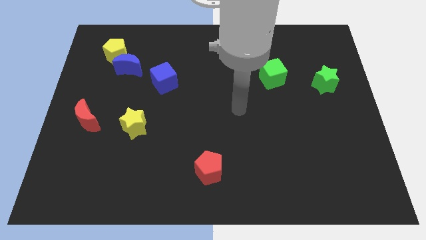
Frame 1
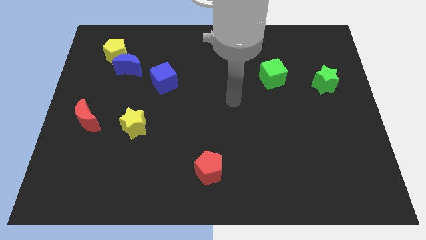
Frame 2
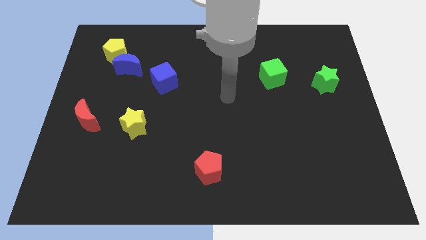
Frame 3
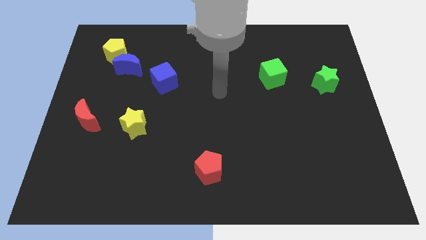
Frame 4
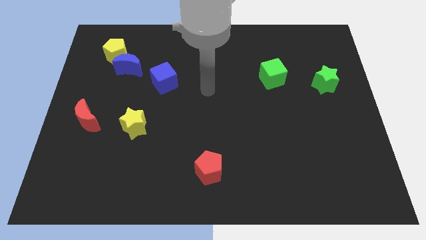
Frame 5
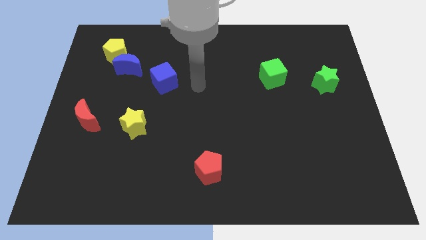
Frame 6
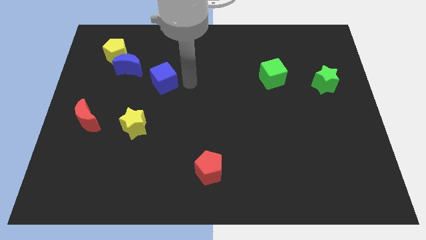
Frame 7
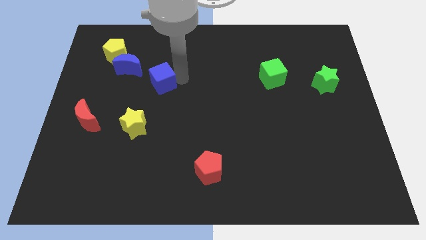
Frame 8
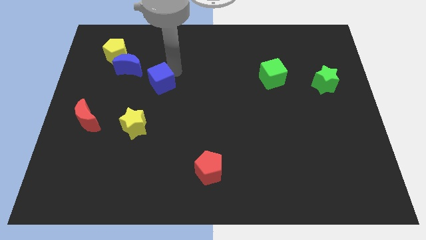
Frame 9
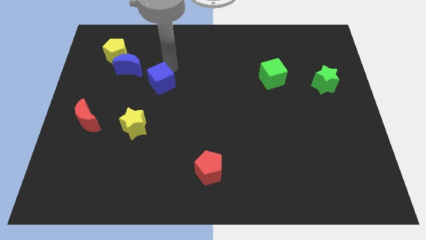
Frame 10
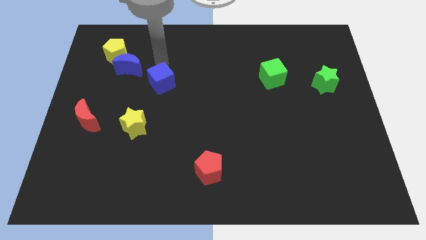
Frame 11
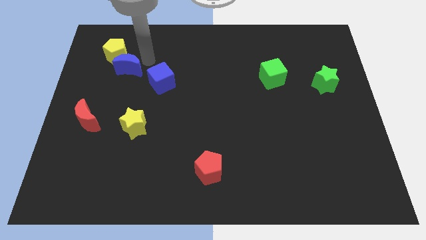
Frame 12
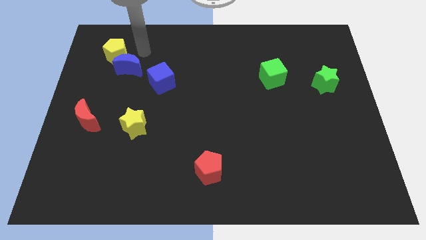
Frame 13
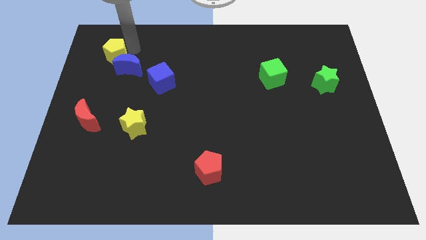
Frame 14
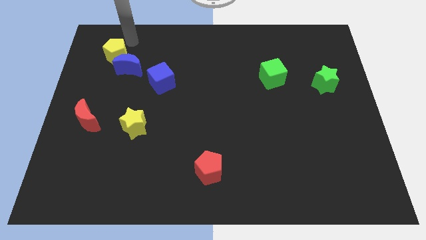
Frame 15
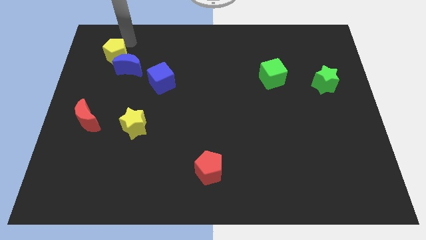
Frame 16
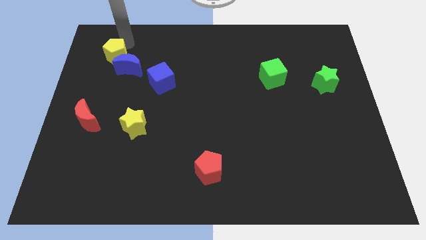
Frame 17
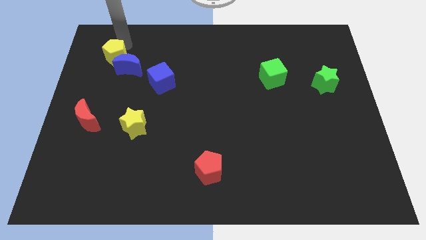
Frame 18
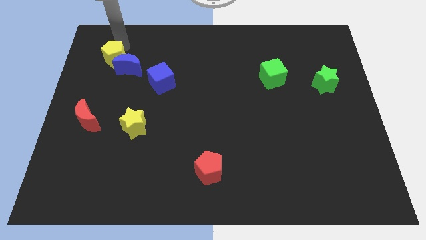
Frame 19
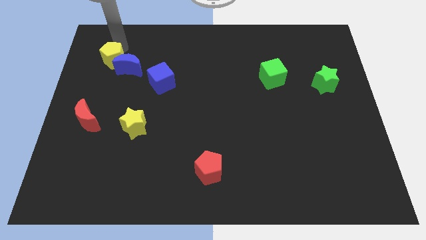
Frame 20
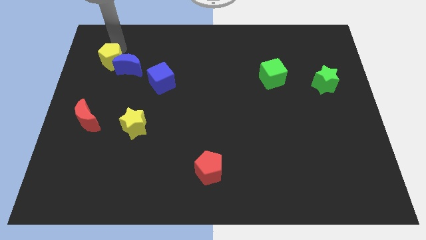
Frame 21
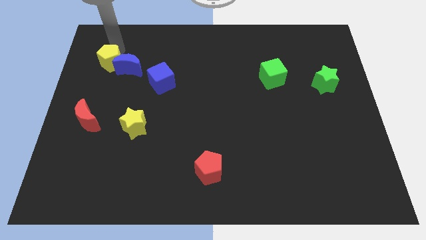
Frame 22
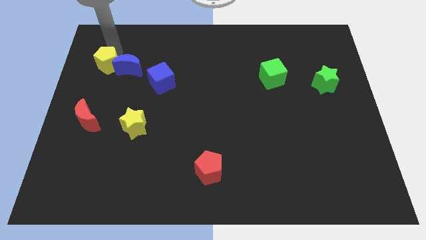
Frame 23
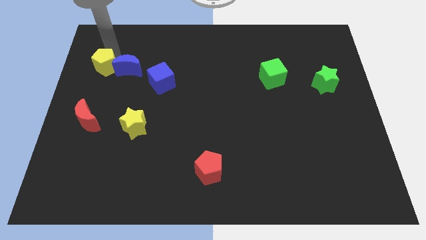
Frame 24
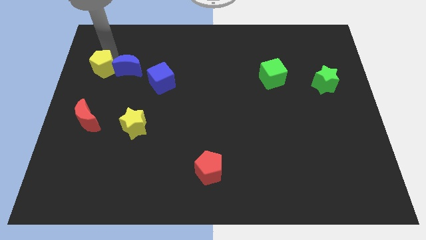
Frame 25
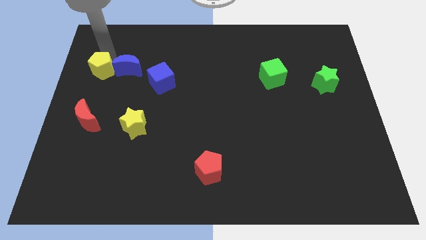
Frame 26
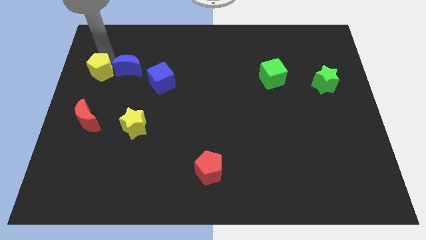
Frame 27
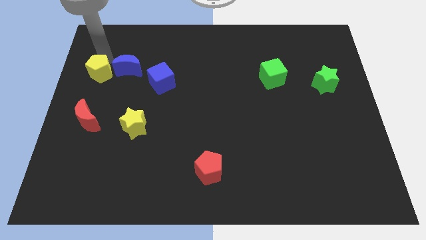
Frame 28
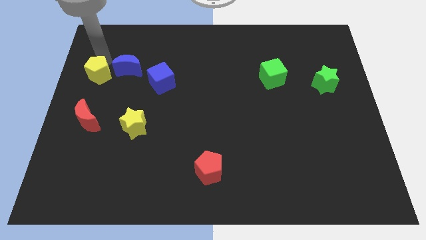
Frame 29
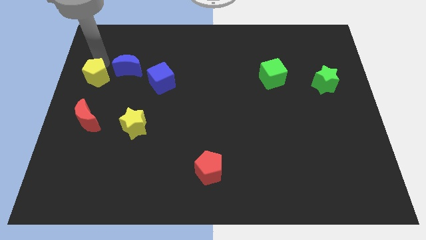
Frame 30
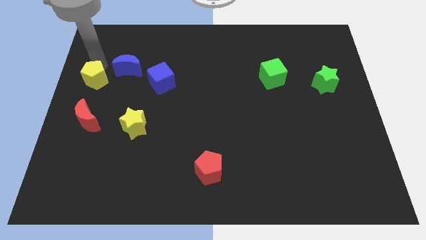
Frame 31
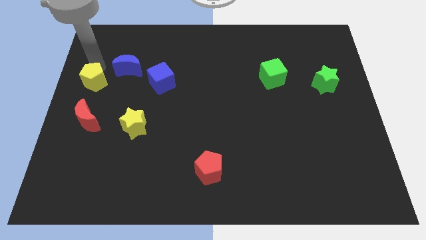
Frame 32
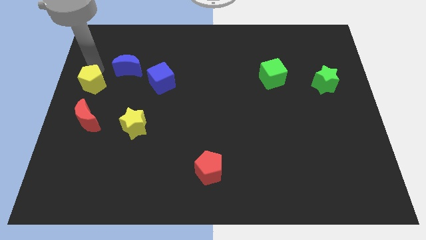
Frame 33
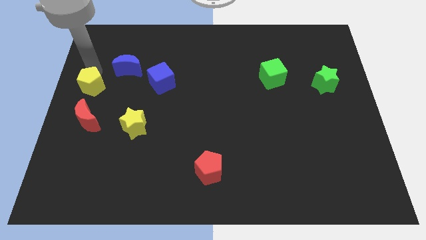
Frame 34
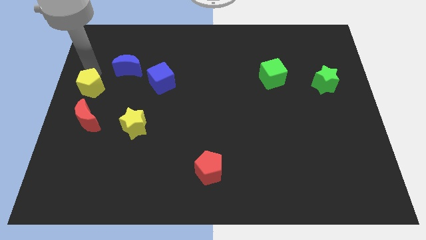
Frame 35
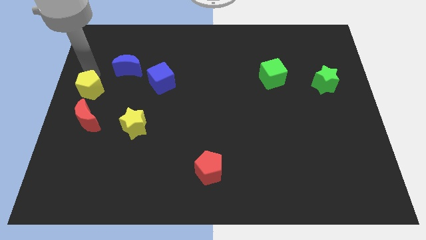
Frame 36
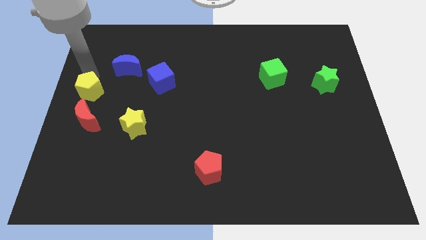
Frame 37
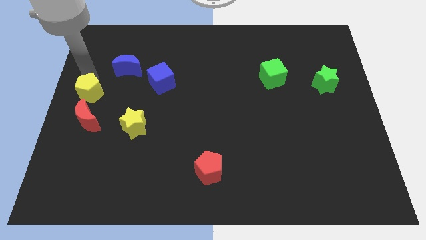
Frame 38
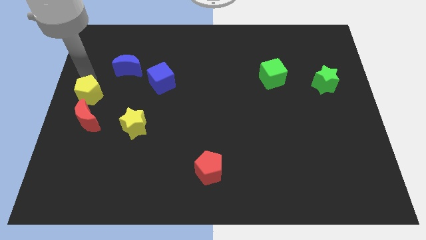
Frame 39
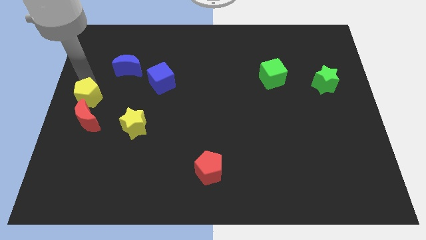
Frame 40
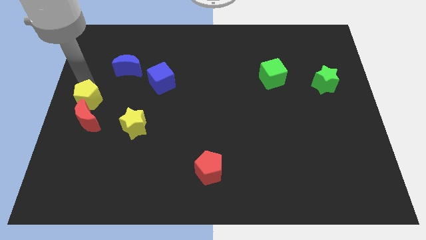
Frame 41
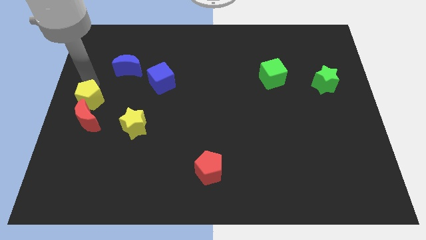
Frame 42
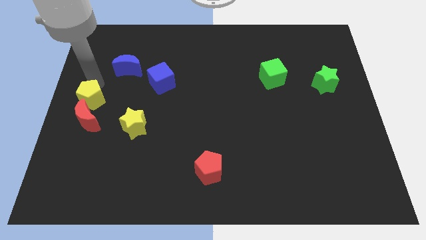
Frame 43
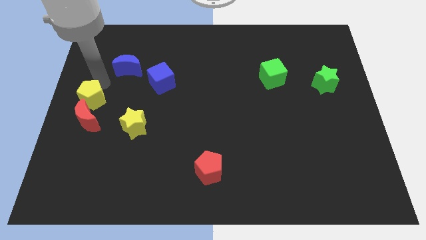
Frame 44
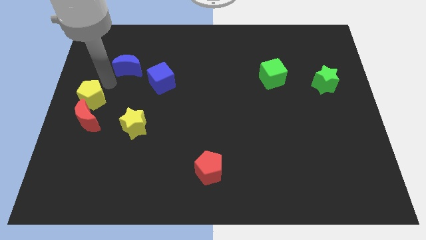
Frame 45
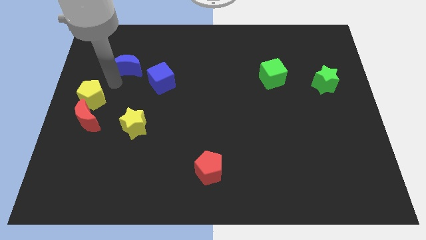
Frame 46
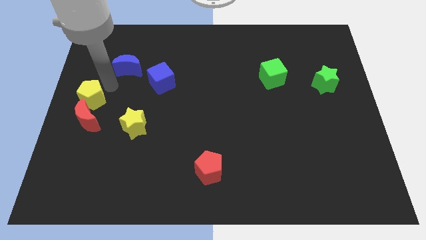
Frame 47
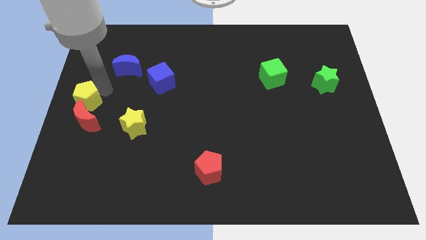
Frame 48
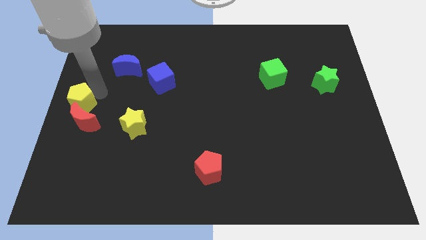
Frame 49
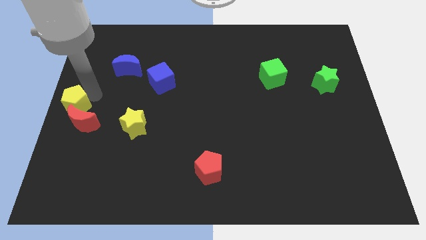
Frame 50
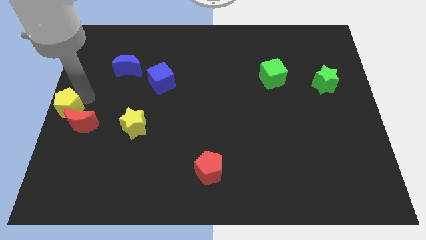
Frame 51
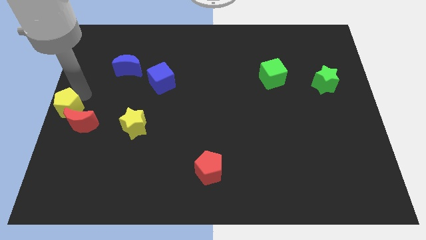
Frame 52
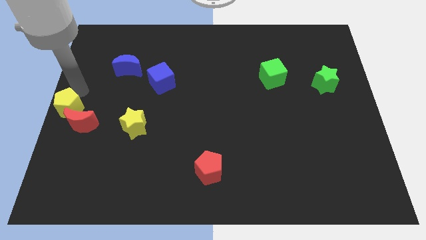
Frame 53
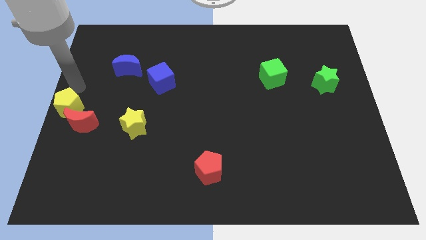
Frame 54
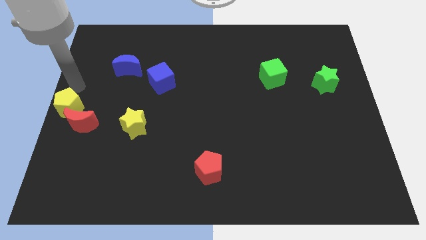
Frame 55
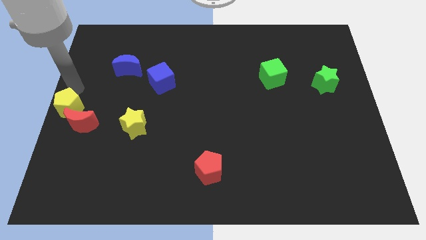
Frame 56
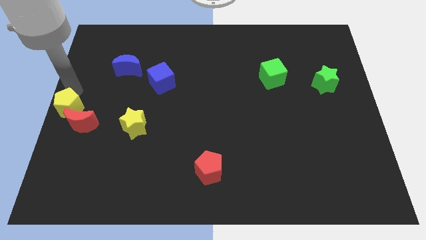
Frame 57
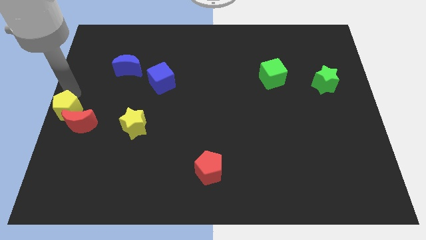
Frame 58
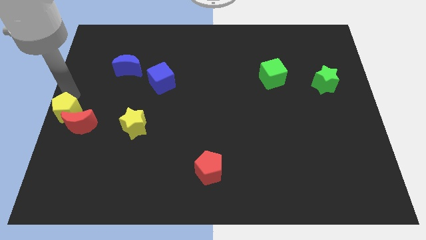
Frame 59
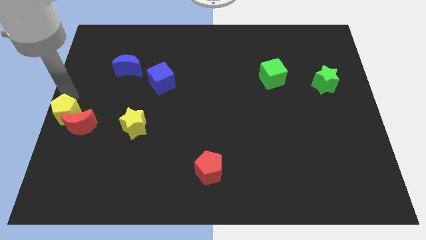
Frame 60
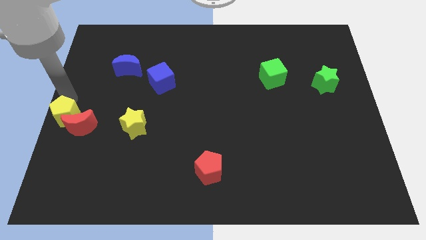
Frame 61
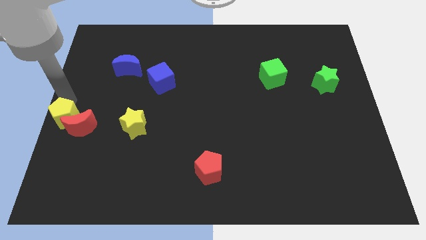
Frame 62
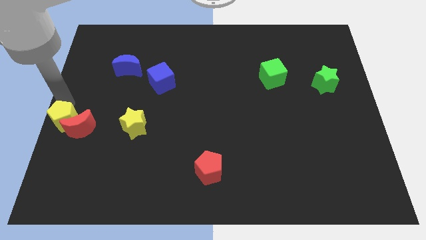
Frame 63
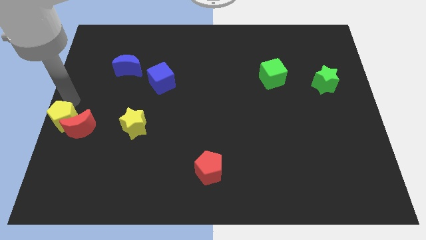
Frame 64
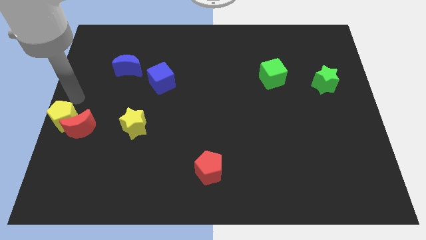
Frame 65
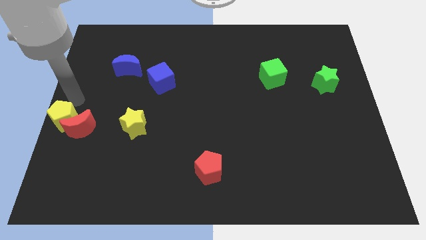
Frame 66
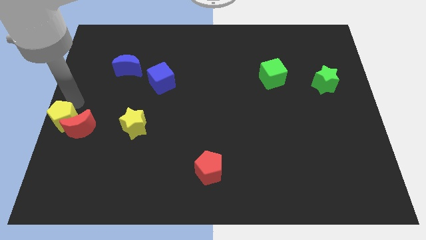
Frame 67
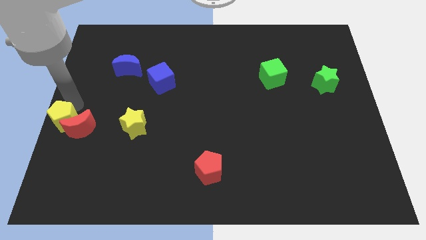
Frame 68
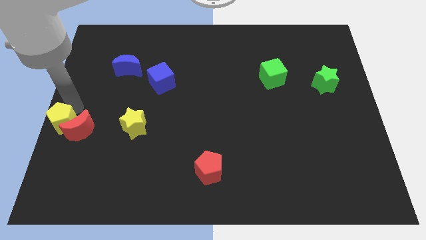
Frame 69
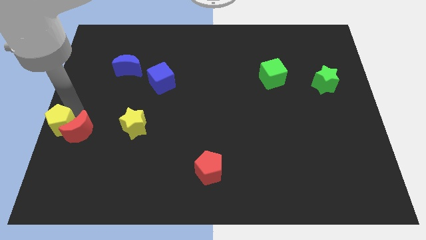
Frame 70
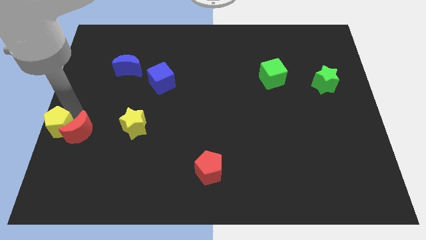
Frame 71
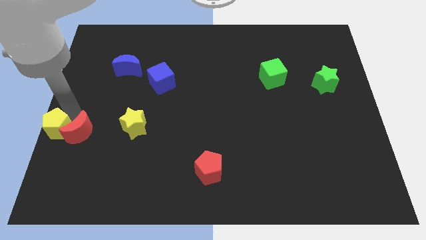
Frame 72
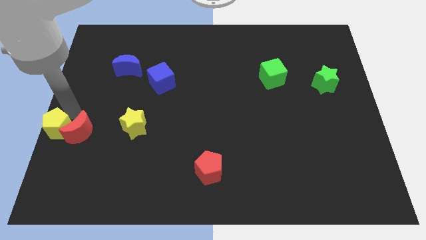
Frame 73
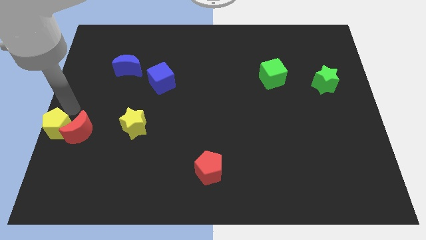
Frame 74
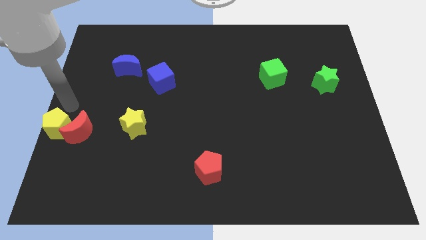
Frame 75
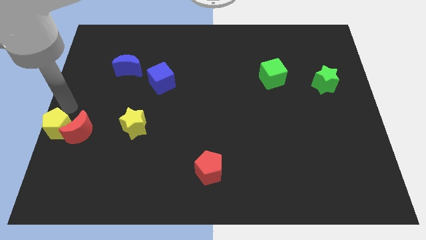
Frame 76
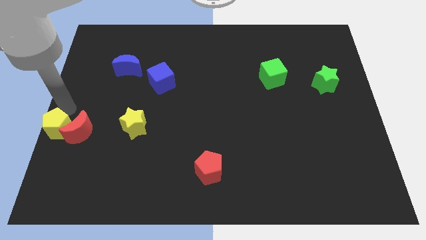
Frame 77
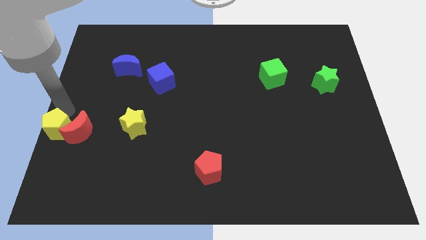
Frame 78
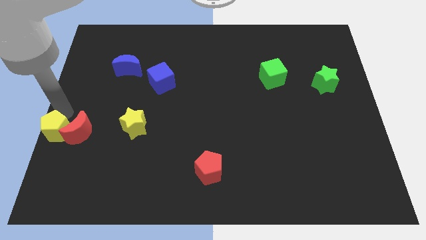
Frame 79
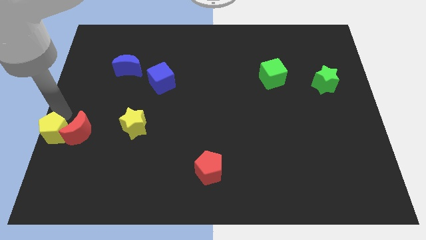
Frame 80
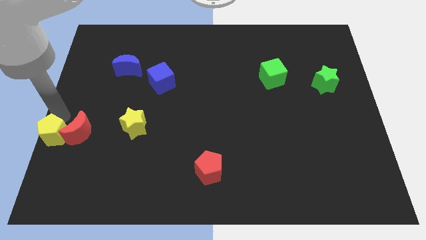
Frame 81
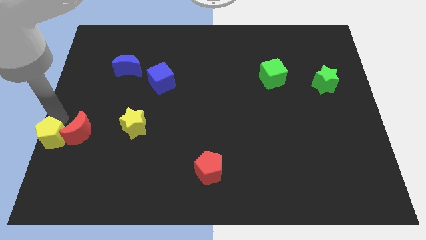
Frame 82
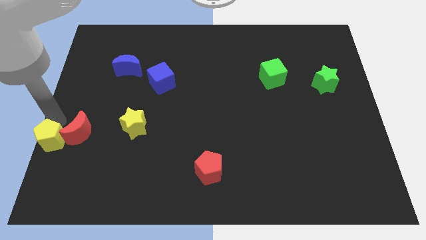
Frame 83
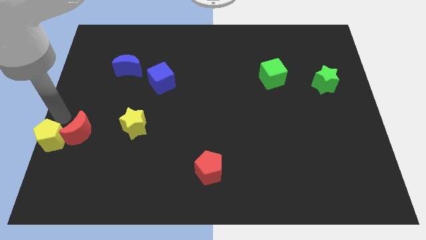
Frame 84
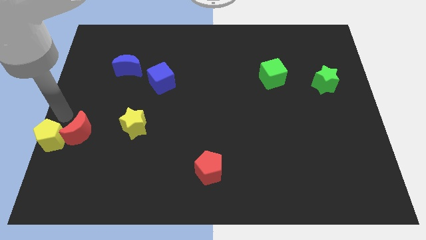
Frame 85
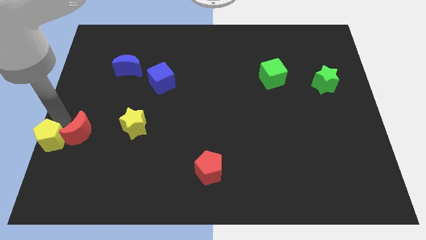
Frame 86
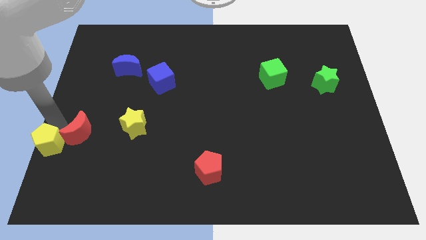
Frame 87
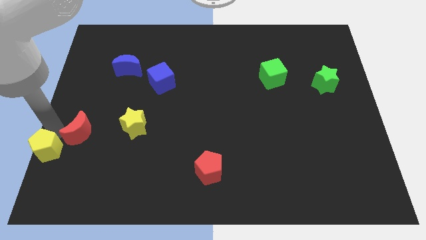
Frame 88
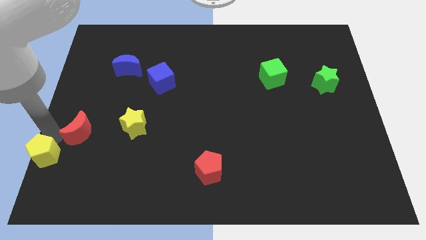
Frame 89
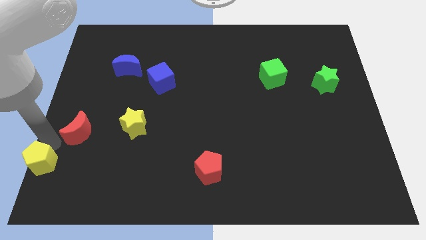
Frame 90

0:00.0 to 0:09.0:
slide the yellow pentagon to the bottom left of the board
